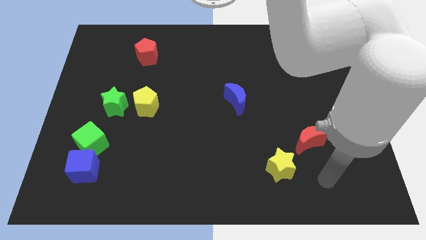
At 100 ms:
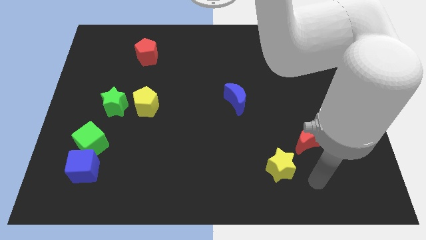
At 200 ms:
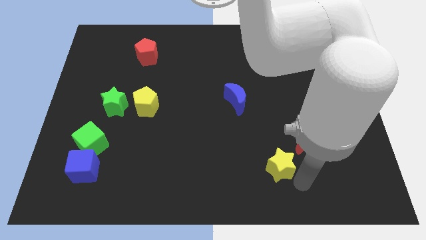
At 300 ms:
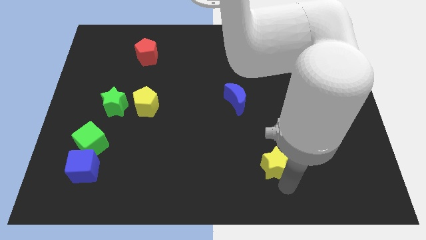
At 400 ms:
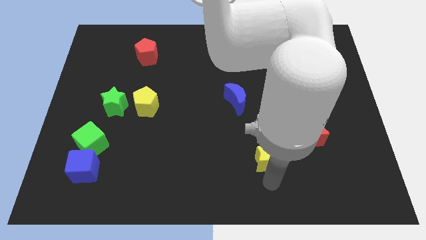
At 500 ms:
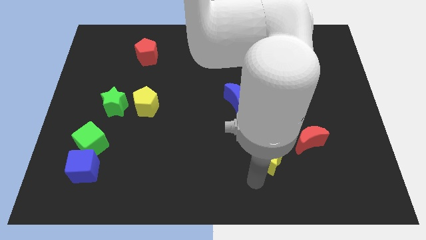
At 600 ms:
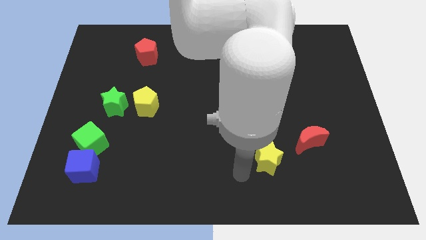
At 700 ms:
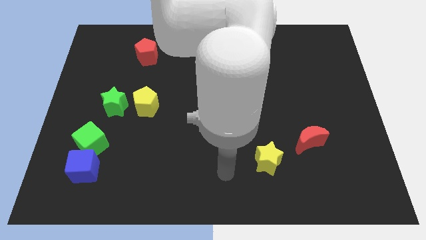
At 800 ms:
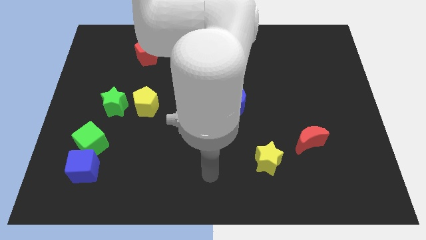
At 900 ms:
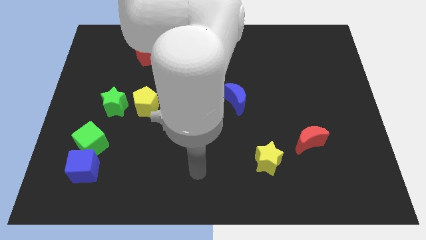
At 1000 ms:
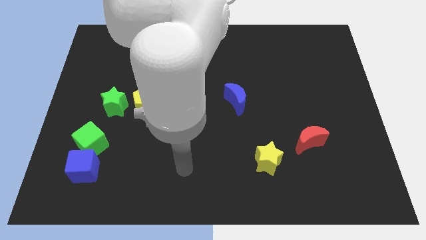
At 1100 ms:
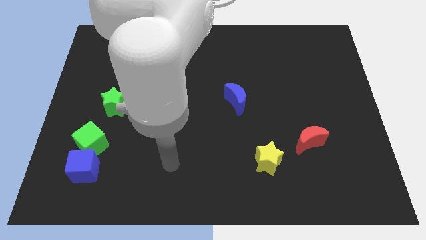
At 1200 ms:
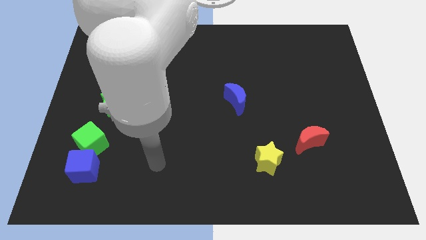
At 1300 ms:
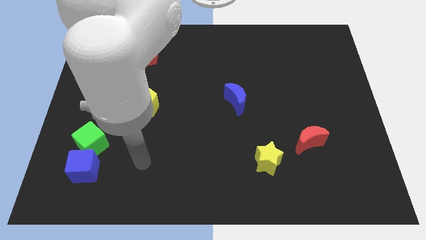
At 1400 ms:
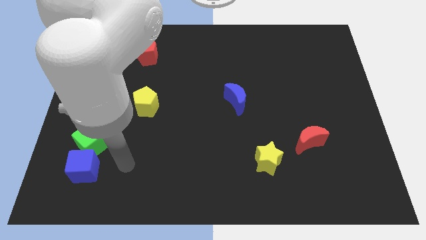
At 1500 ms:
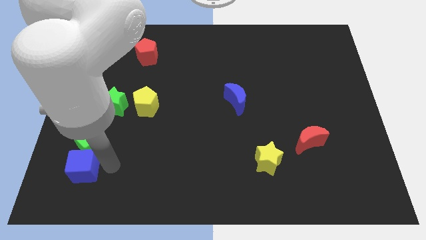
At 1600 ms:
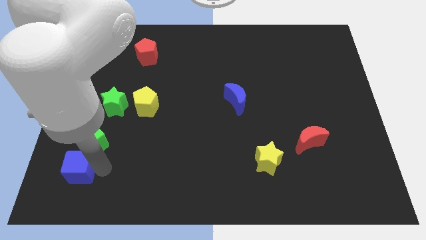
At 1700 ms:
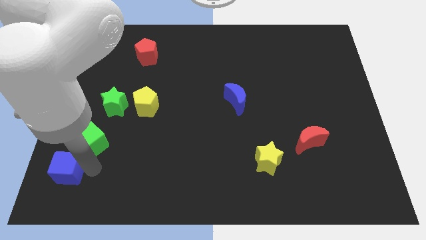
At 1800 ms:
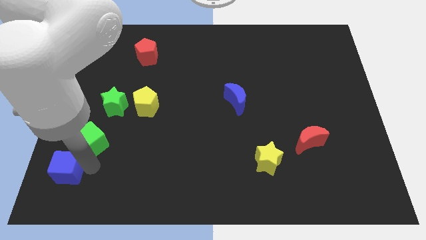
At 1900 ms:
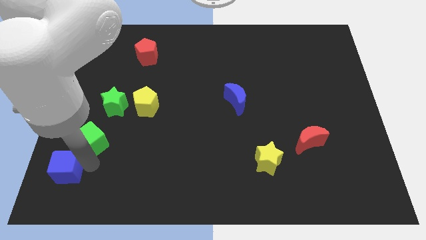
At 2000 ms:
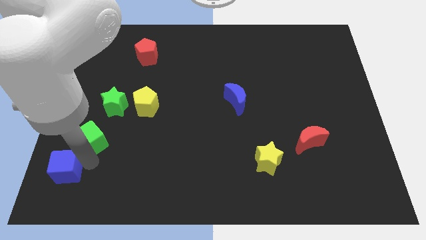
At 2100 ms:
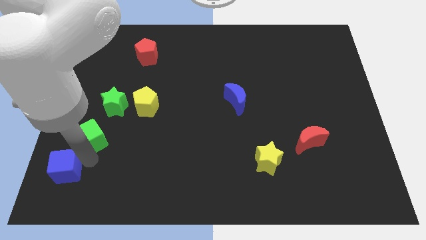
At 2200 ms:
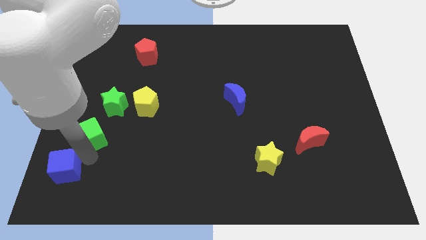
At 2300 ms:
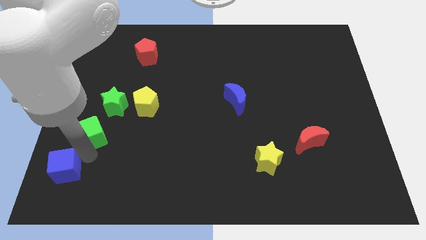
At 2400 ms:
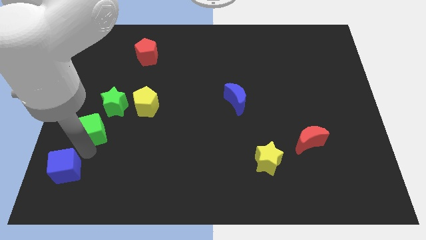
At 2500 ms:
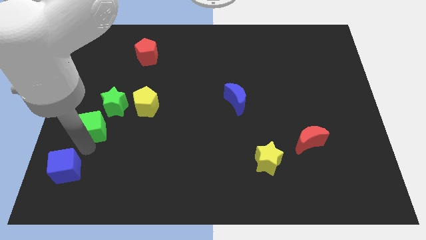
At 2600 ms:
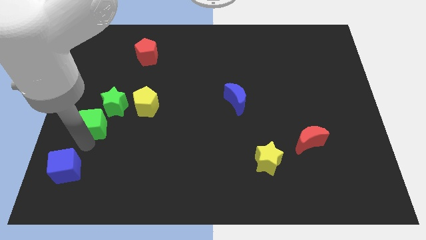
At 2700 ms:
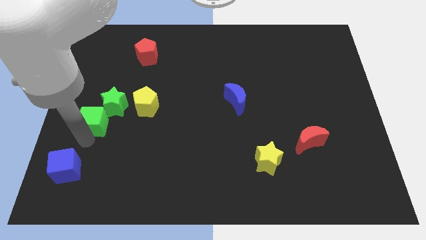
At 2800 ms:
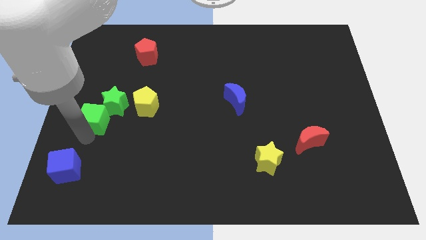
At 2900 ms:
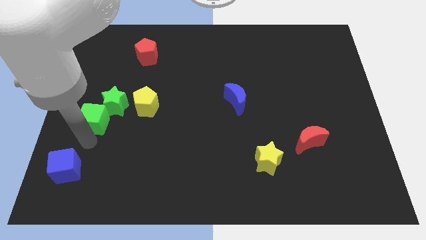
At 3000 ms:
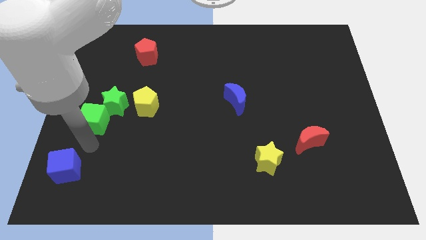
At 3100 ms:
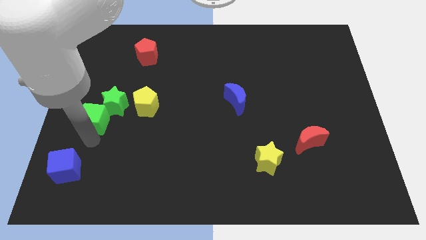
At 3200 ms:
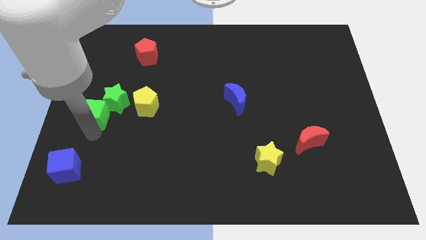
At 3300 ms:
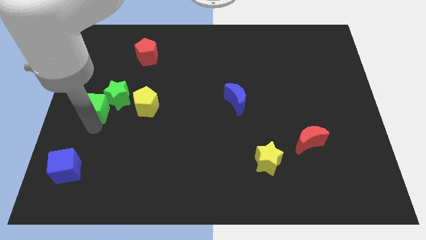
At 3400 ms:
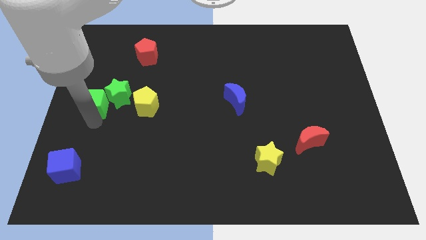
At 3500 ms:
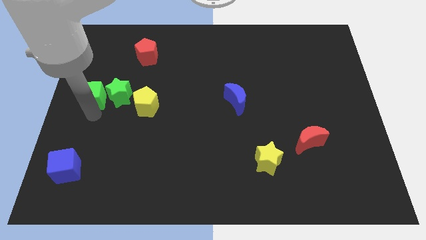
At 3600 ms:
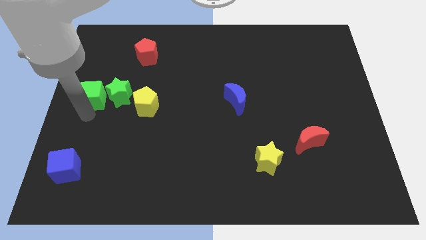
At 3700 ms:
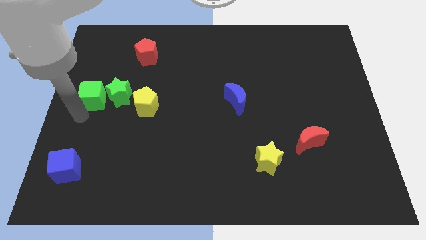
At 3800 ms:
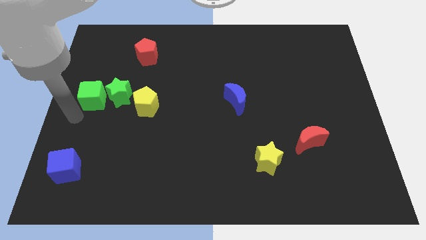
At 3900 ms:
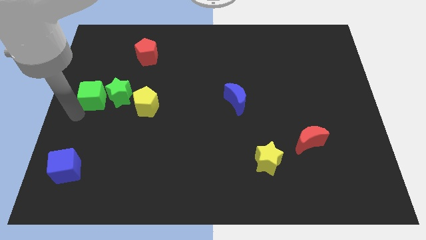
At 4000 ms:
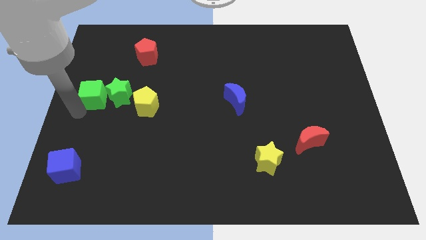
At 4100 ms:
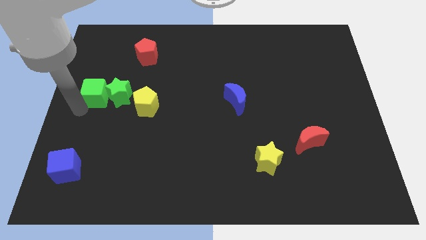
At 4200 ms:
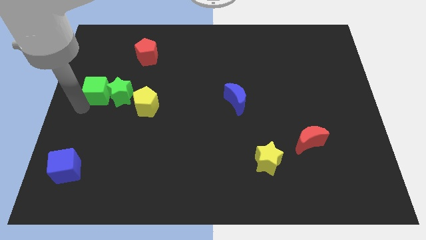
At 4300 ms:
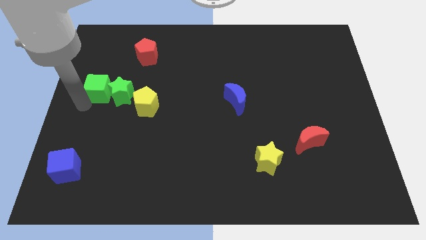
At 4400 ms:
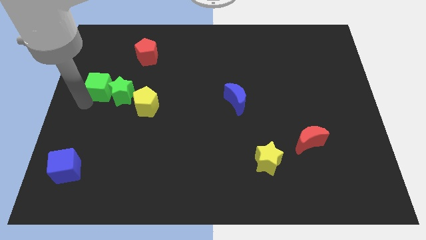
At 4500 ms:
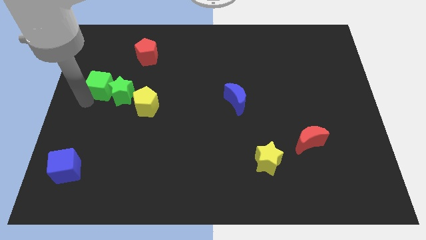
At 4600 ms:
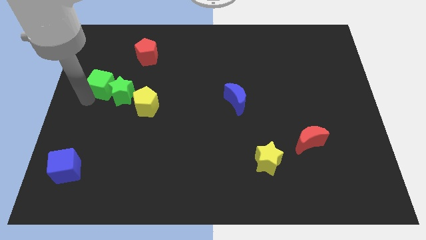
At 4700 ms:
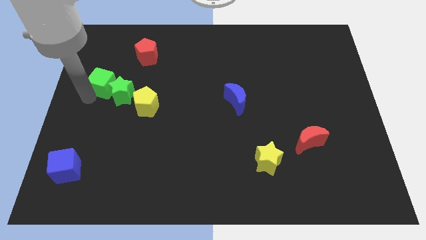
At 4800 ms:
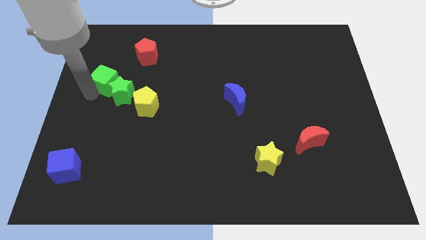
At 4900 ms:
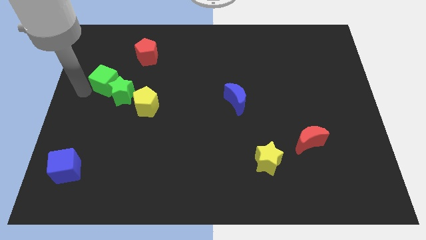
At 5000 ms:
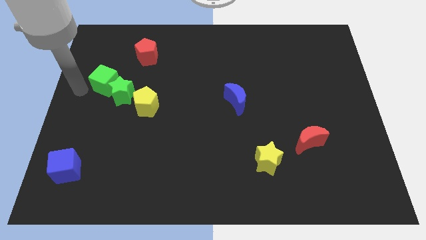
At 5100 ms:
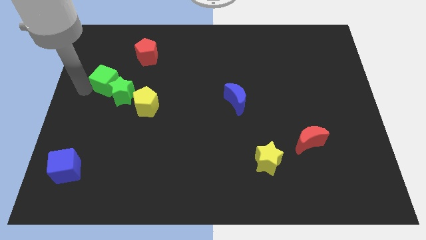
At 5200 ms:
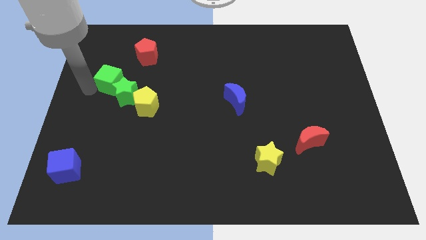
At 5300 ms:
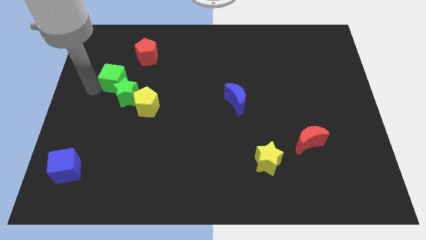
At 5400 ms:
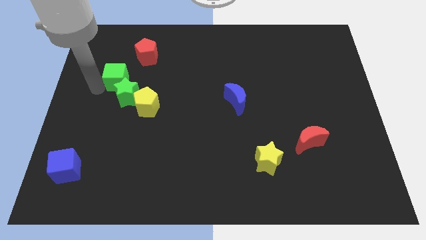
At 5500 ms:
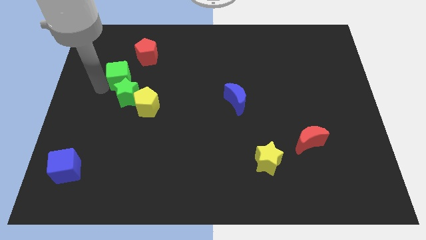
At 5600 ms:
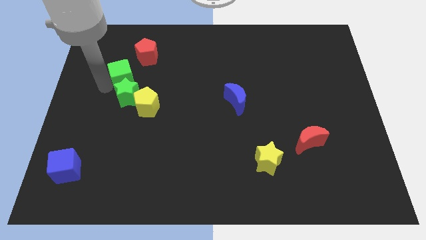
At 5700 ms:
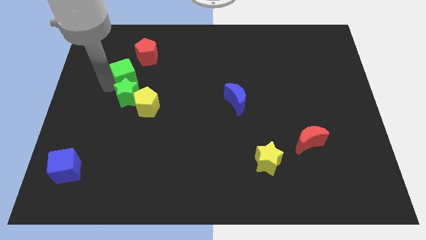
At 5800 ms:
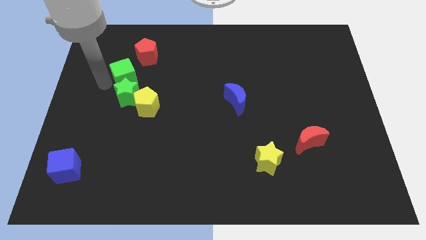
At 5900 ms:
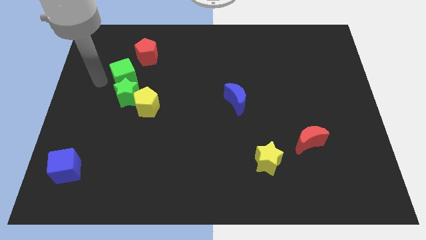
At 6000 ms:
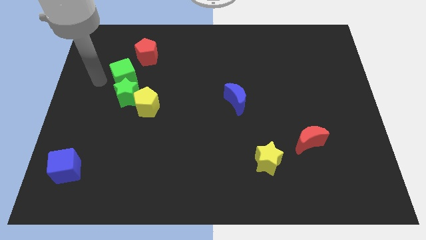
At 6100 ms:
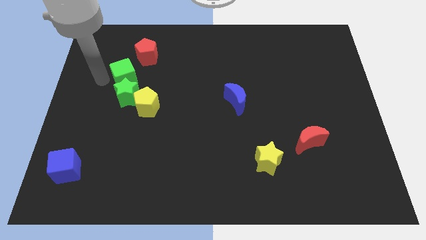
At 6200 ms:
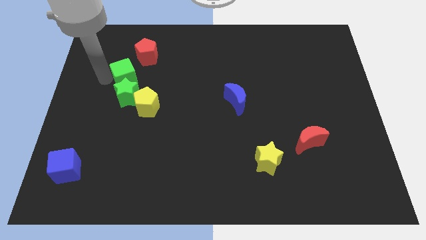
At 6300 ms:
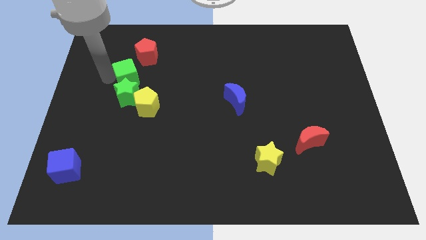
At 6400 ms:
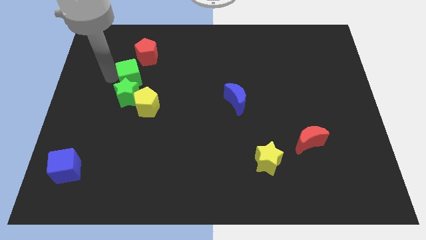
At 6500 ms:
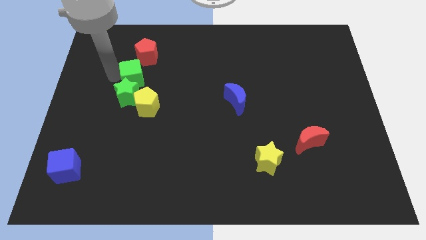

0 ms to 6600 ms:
slide the green cube to the top side of the yellow pentagon

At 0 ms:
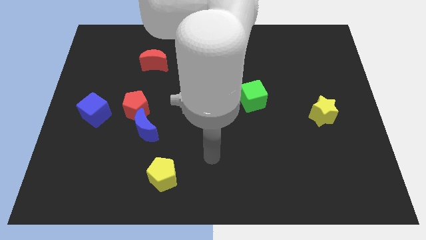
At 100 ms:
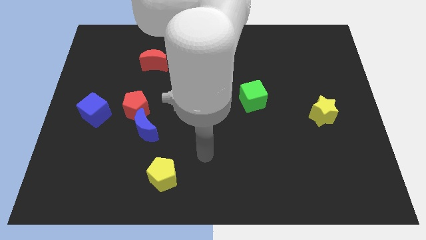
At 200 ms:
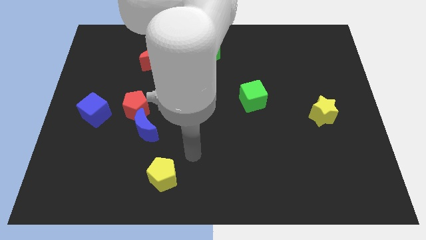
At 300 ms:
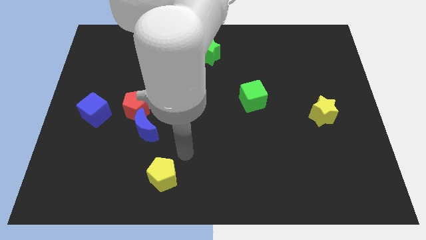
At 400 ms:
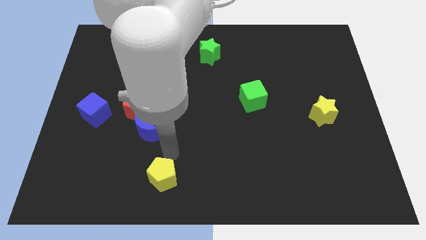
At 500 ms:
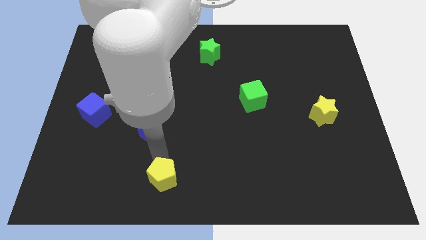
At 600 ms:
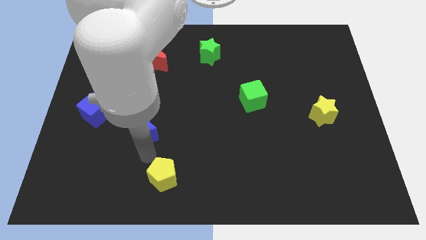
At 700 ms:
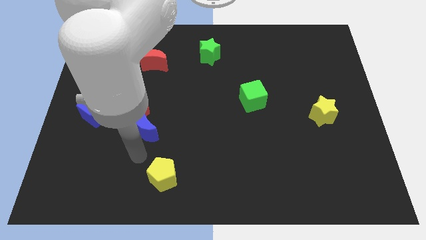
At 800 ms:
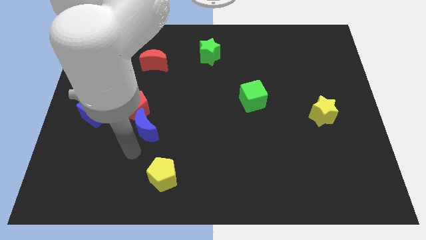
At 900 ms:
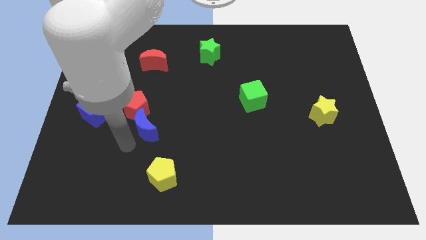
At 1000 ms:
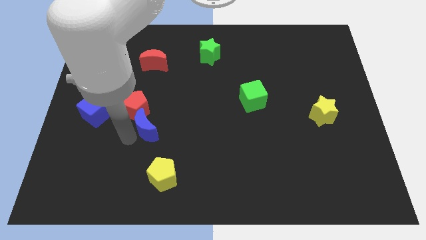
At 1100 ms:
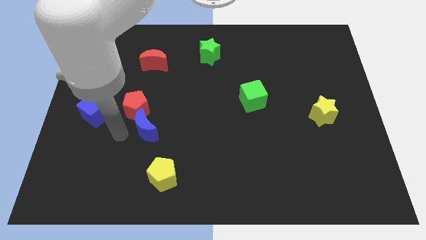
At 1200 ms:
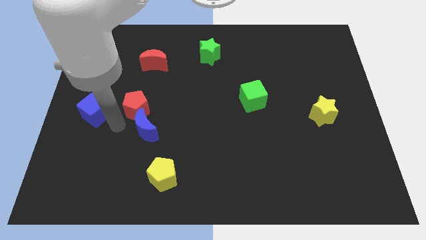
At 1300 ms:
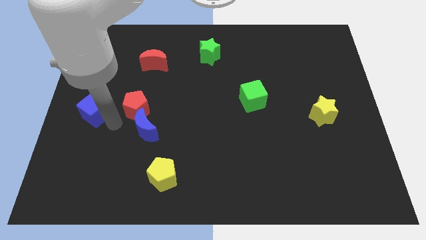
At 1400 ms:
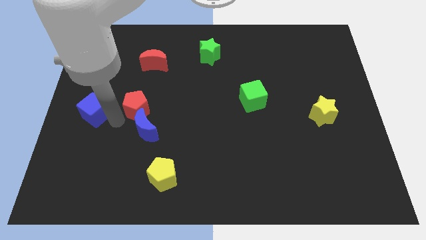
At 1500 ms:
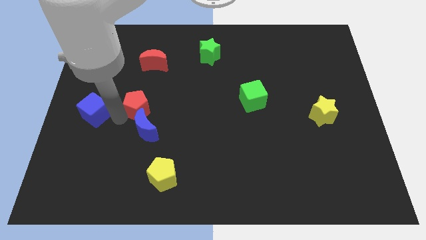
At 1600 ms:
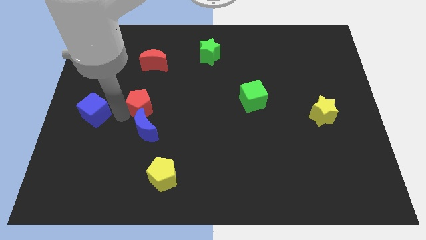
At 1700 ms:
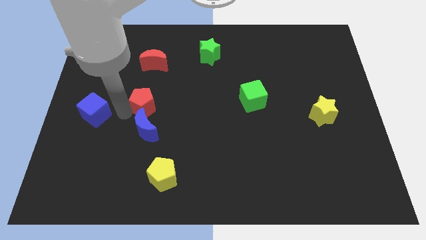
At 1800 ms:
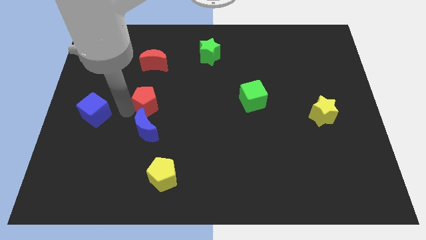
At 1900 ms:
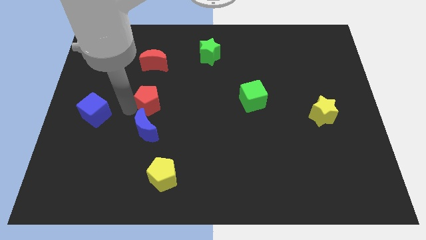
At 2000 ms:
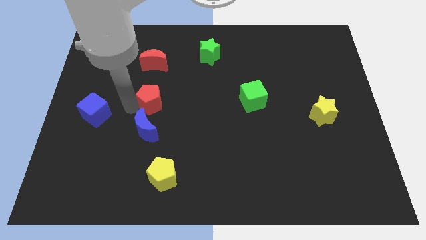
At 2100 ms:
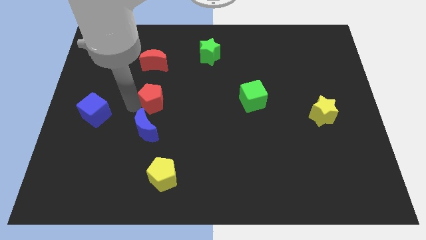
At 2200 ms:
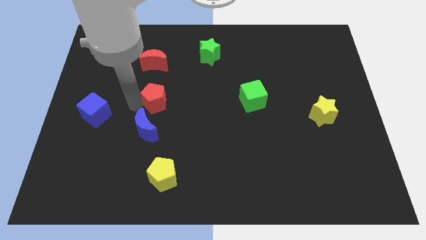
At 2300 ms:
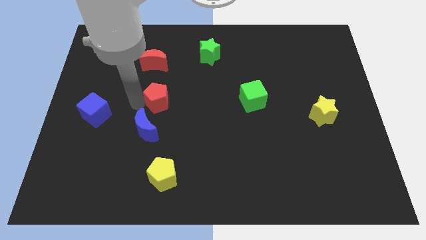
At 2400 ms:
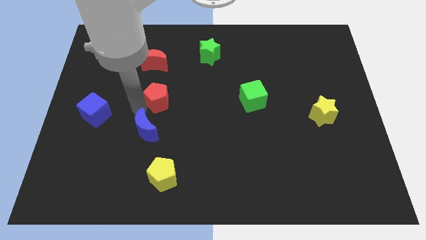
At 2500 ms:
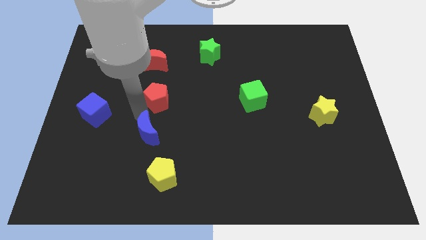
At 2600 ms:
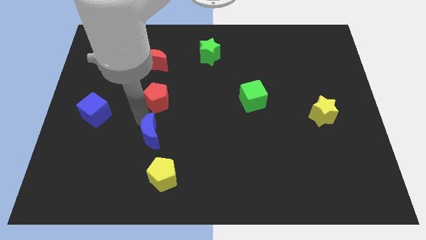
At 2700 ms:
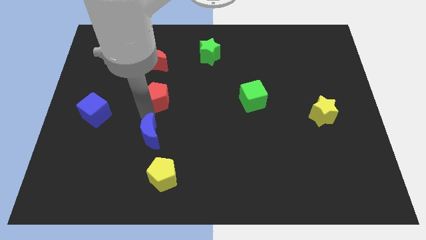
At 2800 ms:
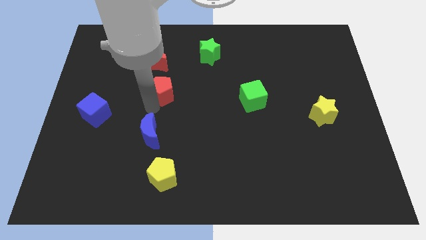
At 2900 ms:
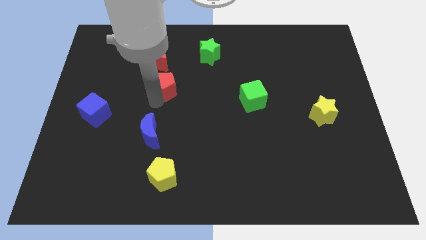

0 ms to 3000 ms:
put the red pentagon diagonally down and to the right of the red moon
